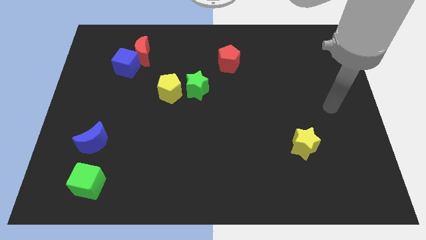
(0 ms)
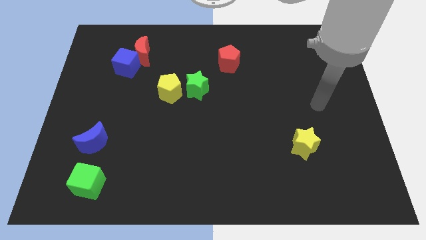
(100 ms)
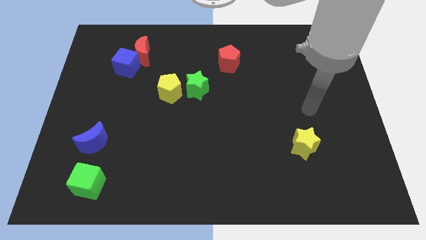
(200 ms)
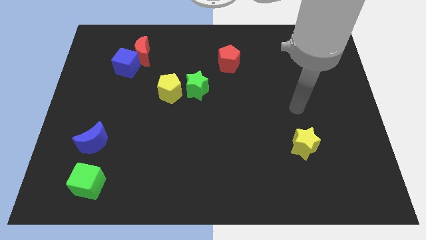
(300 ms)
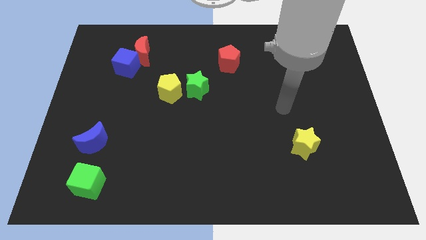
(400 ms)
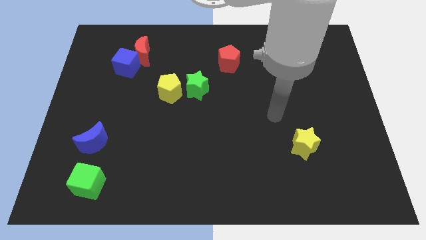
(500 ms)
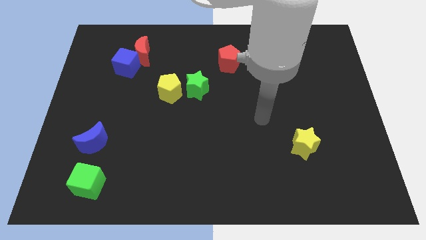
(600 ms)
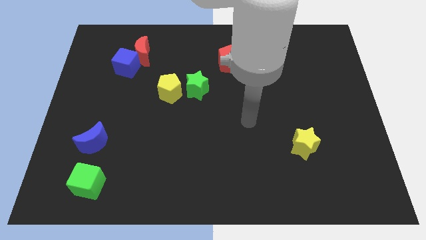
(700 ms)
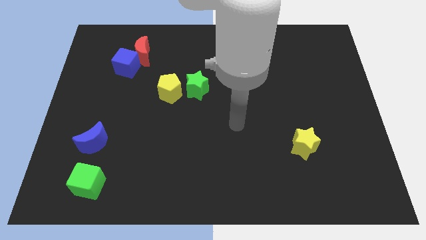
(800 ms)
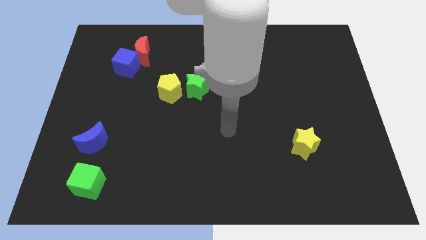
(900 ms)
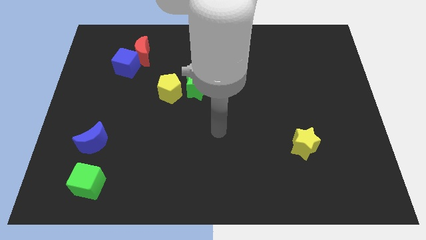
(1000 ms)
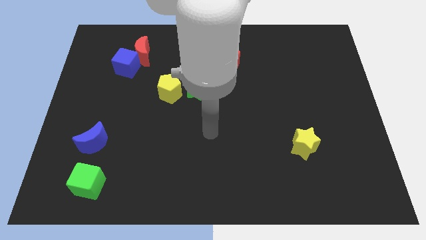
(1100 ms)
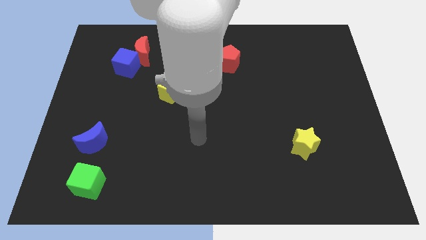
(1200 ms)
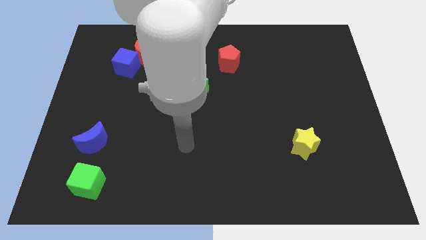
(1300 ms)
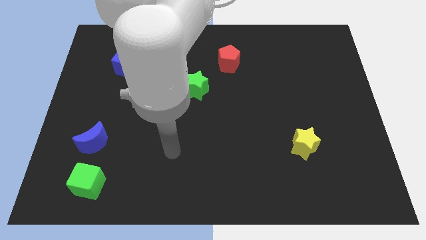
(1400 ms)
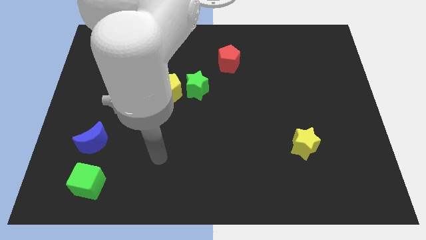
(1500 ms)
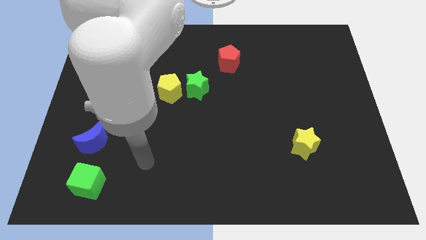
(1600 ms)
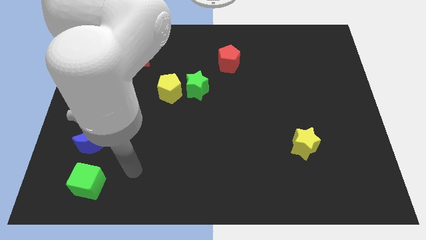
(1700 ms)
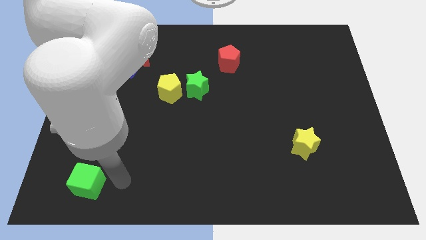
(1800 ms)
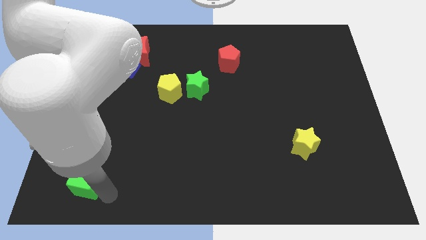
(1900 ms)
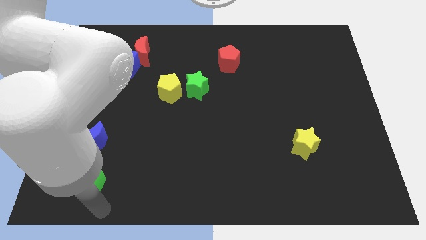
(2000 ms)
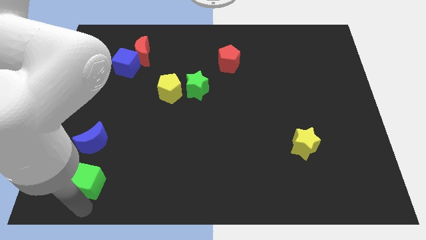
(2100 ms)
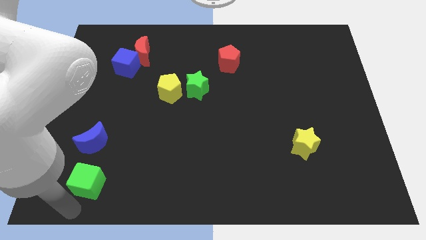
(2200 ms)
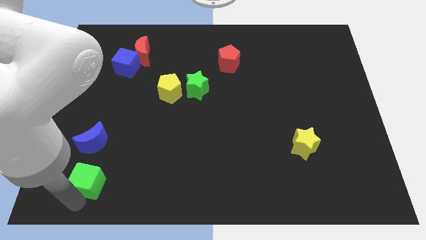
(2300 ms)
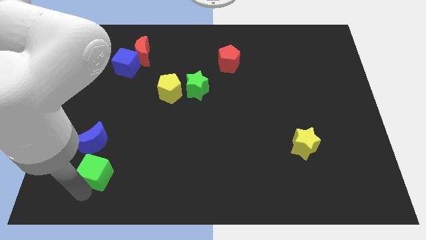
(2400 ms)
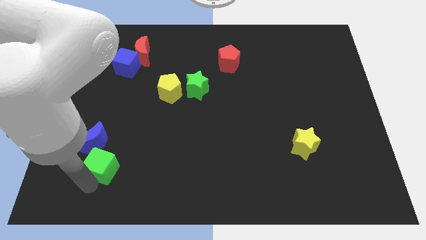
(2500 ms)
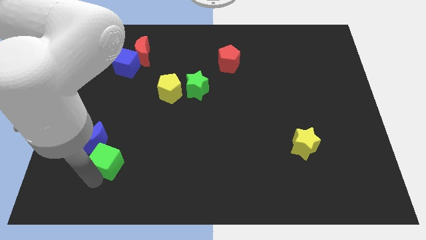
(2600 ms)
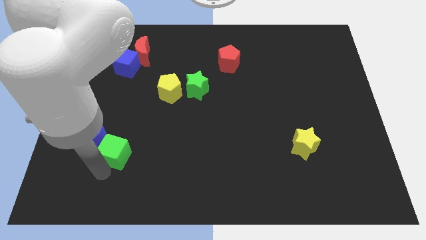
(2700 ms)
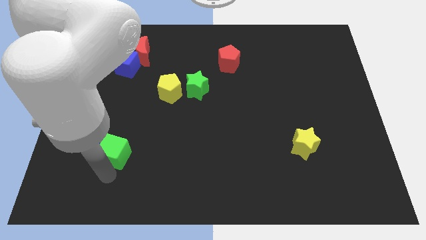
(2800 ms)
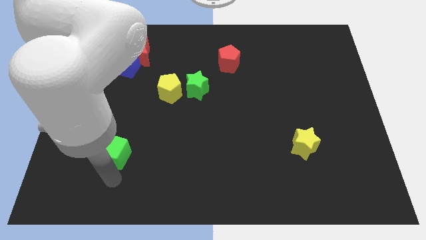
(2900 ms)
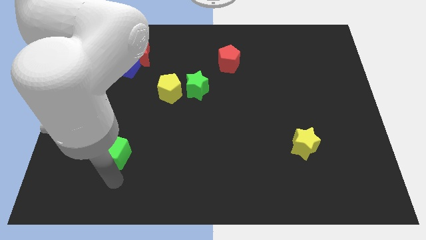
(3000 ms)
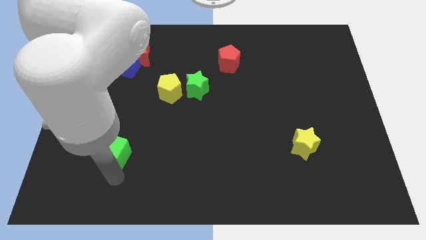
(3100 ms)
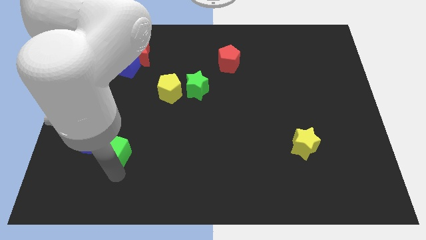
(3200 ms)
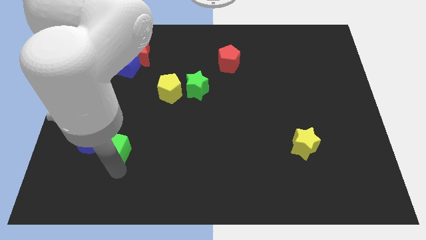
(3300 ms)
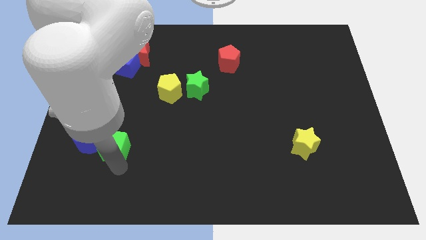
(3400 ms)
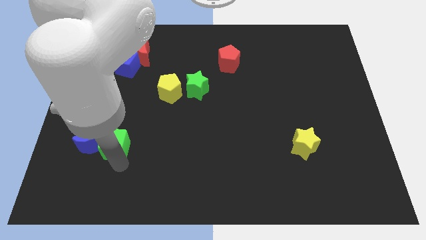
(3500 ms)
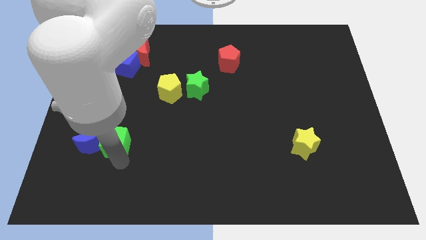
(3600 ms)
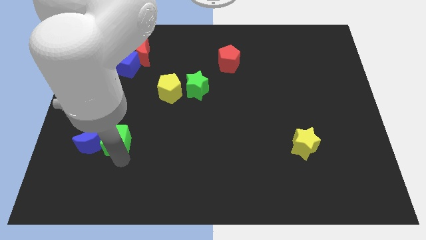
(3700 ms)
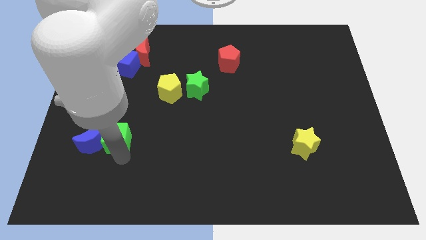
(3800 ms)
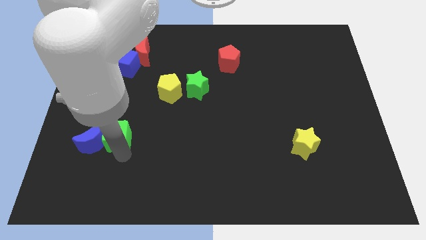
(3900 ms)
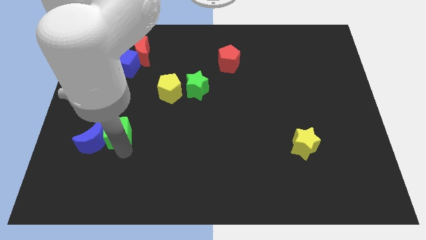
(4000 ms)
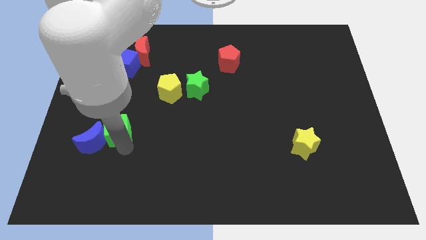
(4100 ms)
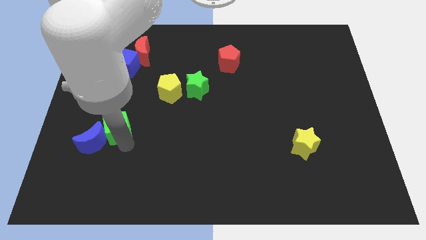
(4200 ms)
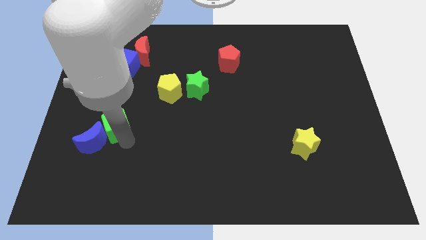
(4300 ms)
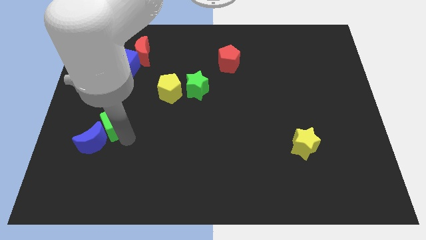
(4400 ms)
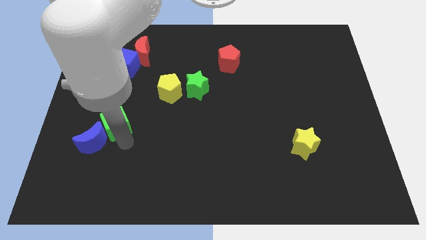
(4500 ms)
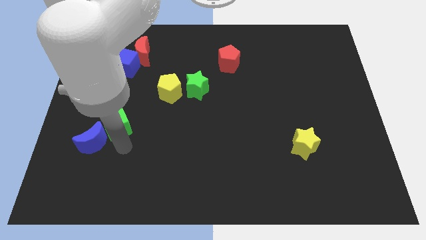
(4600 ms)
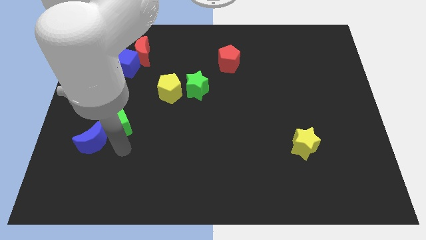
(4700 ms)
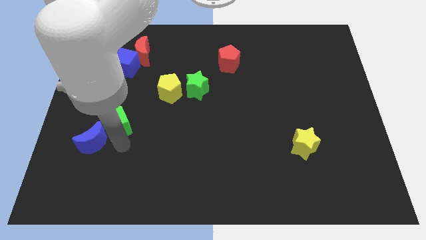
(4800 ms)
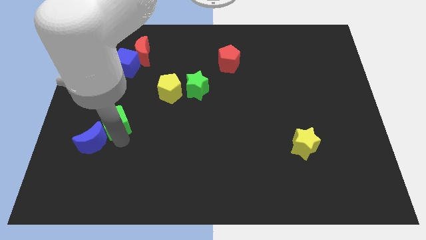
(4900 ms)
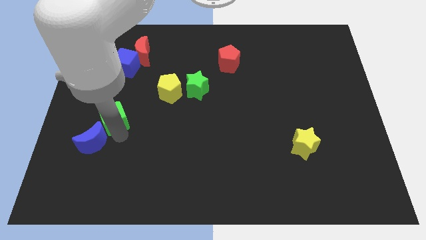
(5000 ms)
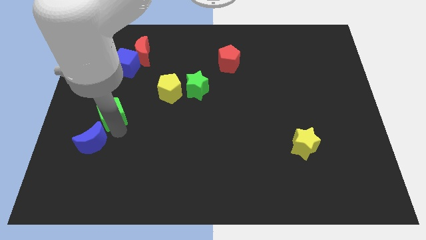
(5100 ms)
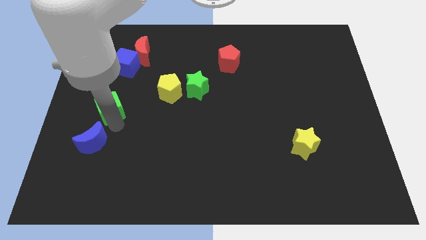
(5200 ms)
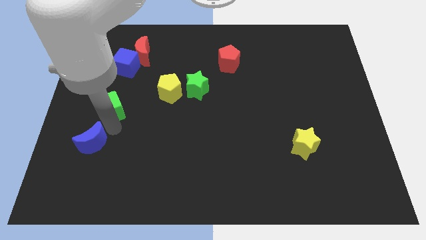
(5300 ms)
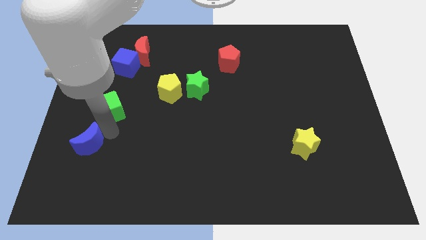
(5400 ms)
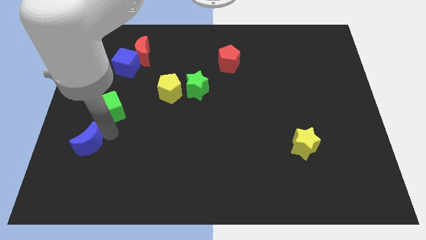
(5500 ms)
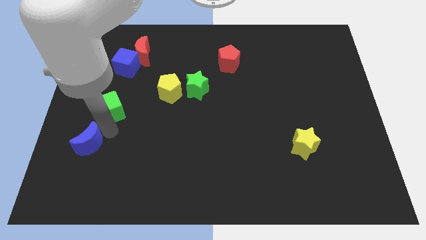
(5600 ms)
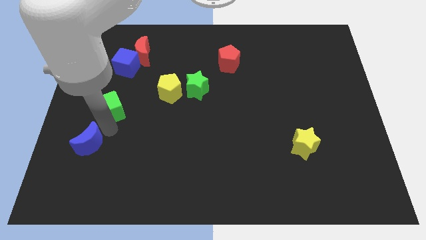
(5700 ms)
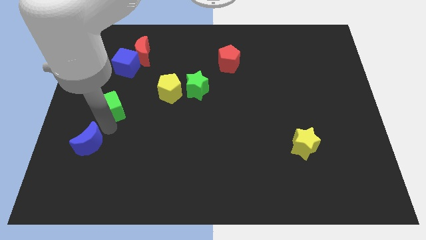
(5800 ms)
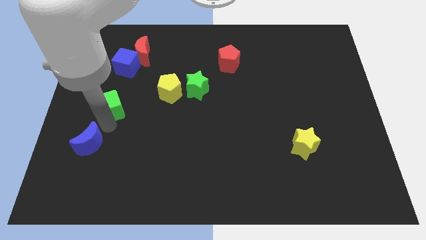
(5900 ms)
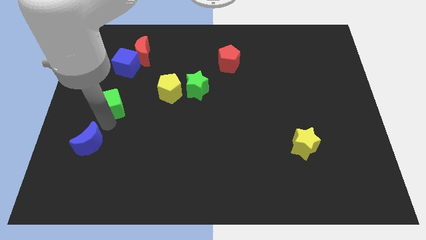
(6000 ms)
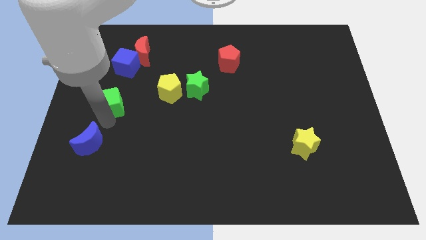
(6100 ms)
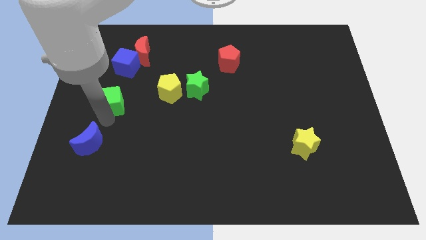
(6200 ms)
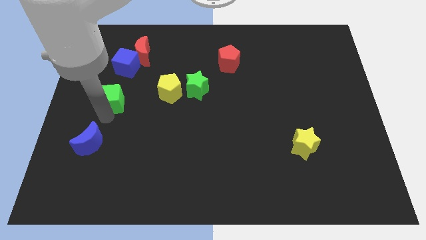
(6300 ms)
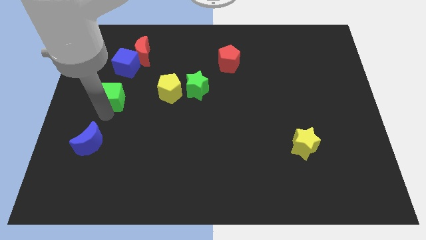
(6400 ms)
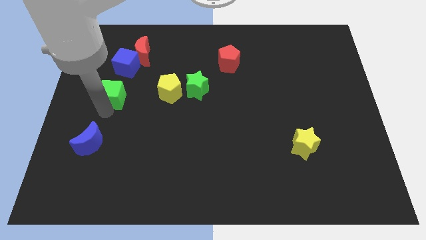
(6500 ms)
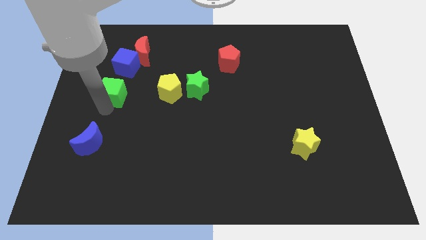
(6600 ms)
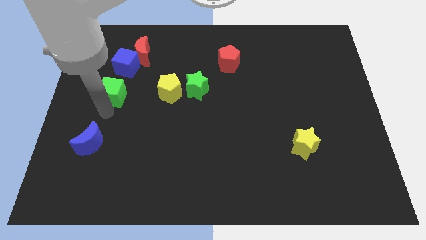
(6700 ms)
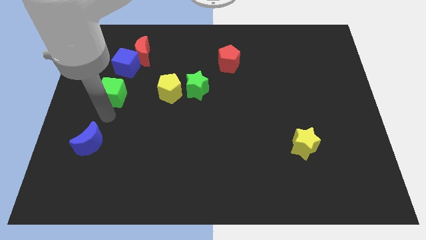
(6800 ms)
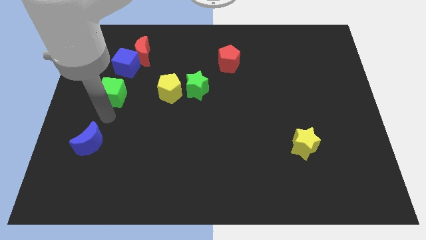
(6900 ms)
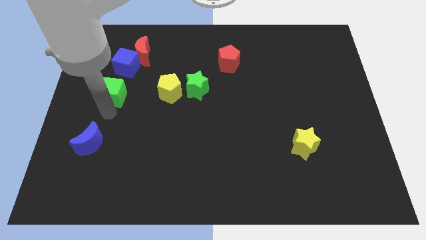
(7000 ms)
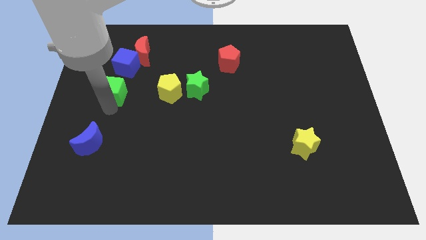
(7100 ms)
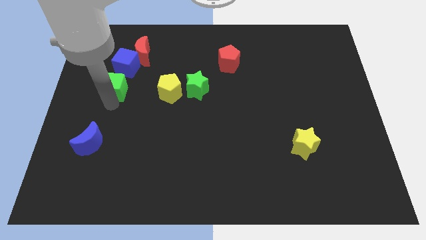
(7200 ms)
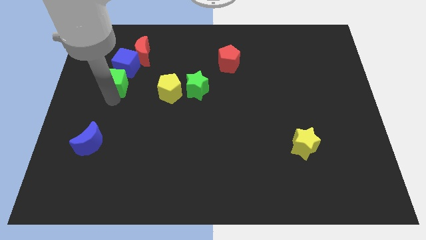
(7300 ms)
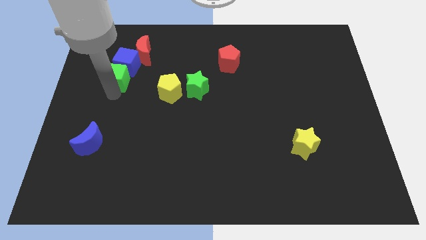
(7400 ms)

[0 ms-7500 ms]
move the green cube close to the blue cube
